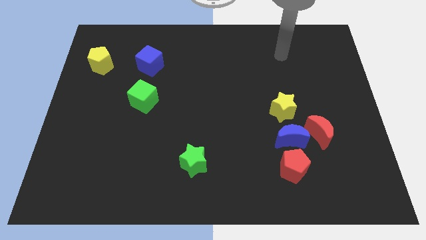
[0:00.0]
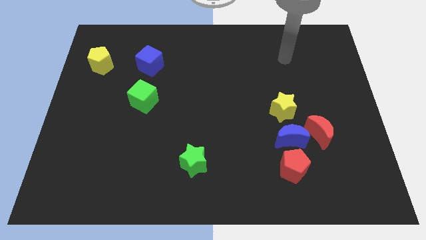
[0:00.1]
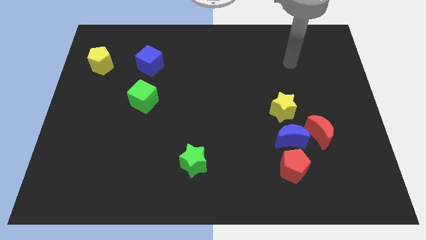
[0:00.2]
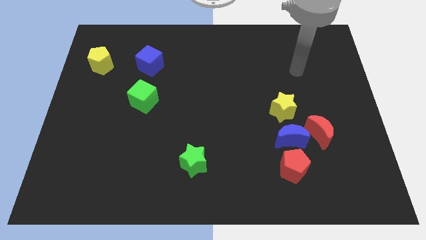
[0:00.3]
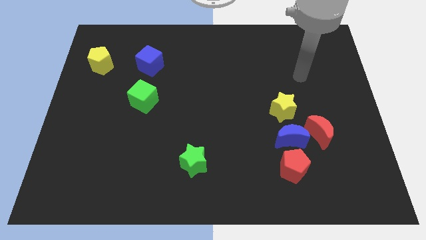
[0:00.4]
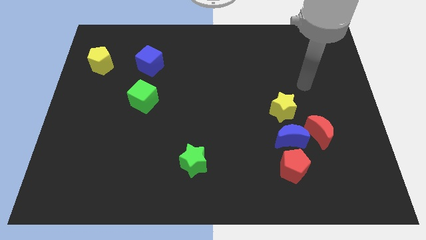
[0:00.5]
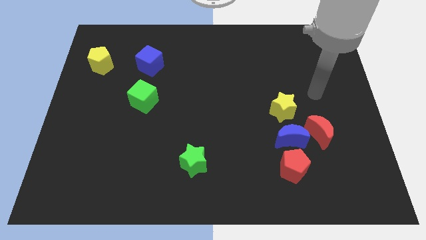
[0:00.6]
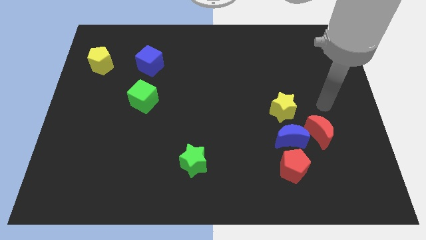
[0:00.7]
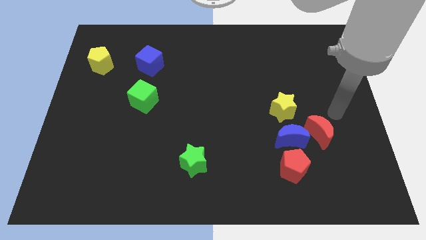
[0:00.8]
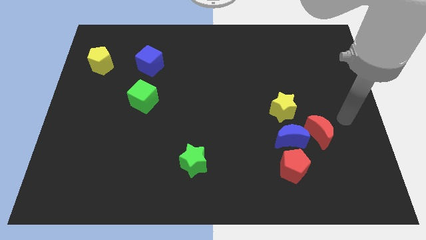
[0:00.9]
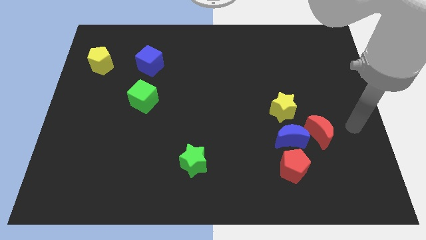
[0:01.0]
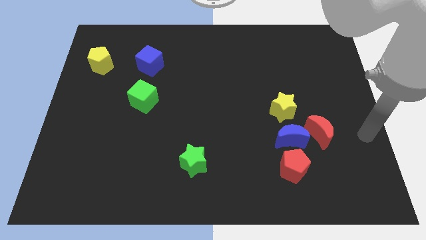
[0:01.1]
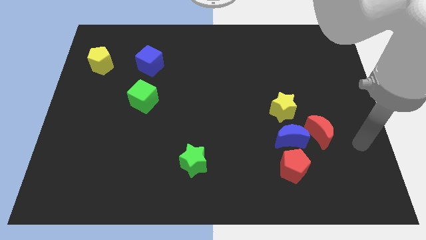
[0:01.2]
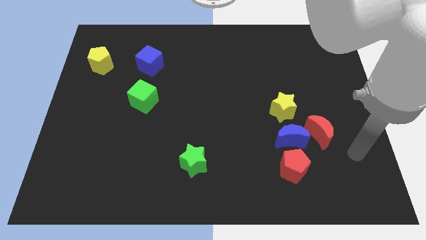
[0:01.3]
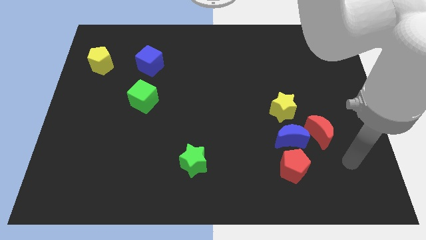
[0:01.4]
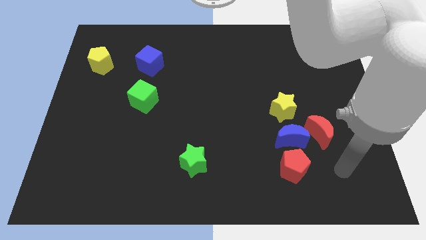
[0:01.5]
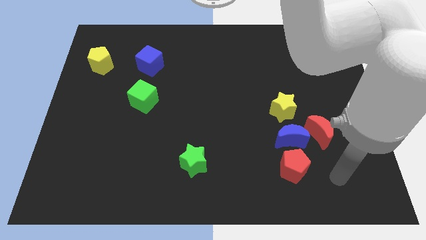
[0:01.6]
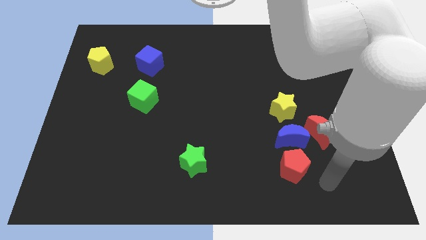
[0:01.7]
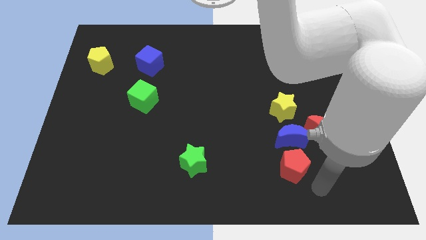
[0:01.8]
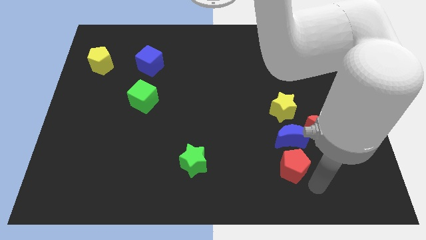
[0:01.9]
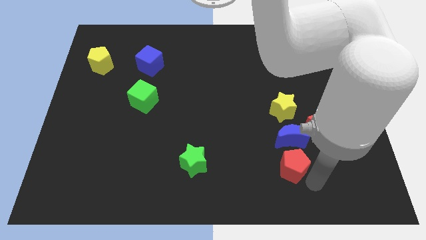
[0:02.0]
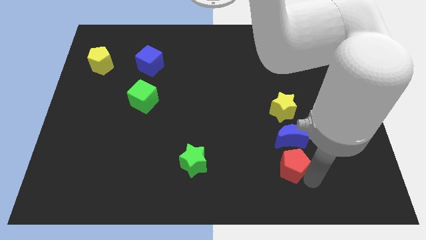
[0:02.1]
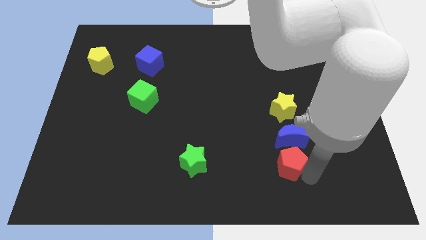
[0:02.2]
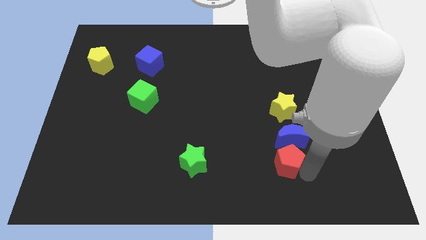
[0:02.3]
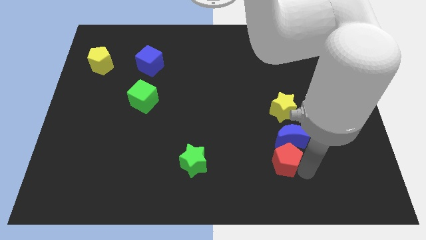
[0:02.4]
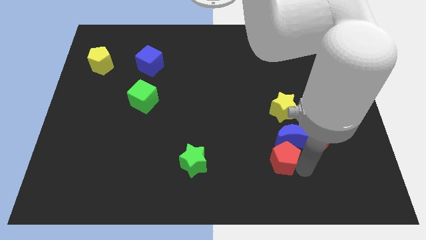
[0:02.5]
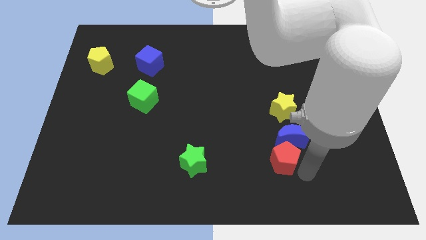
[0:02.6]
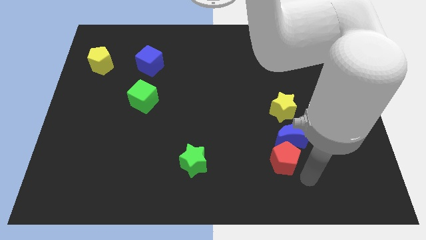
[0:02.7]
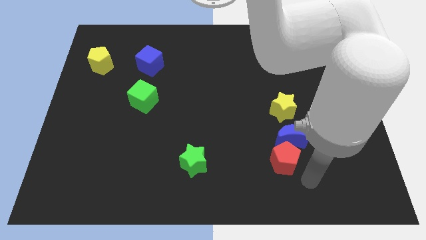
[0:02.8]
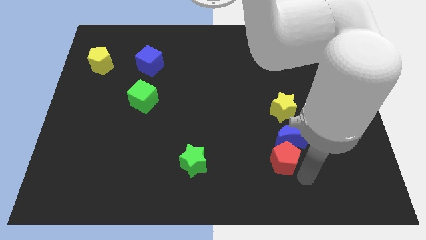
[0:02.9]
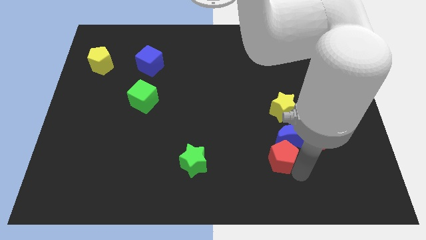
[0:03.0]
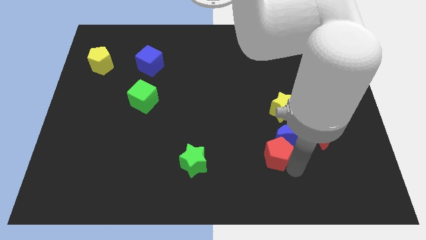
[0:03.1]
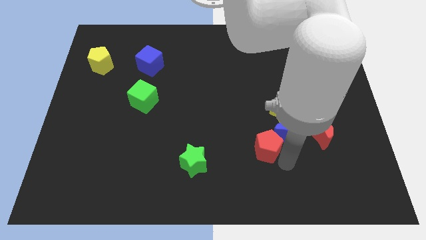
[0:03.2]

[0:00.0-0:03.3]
slightly slide the red pentagon upwards and left diagonally

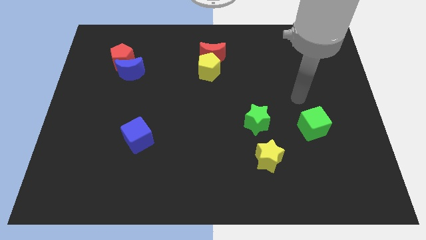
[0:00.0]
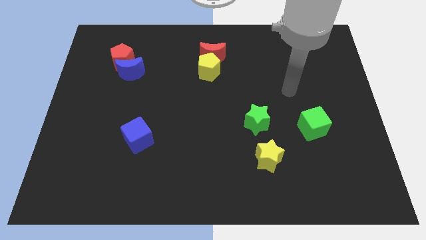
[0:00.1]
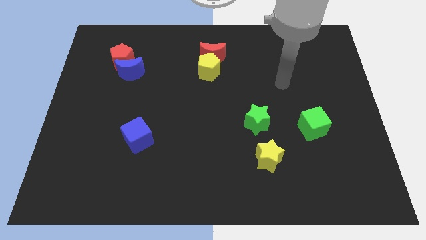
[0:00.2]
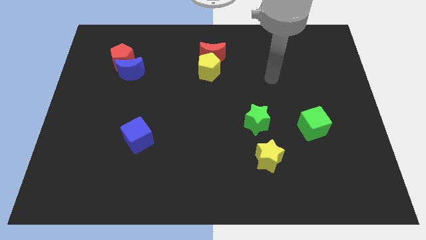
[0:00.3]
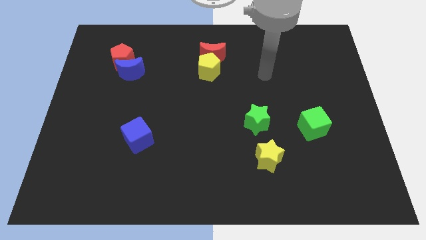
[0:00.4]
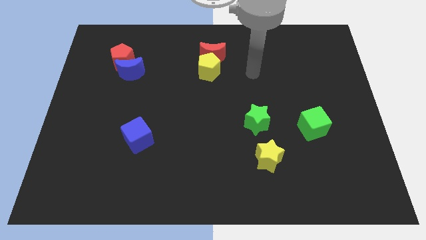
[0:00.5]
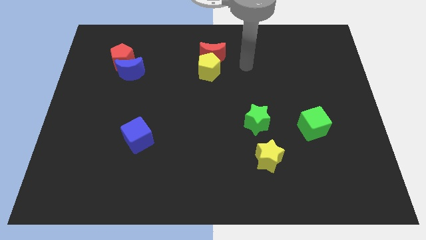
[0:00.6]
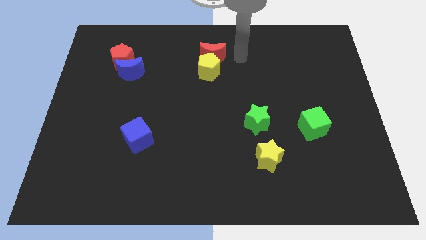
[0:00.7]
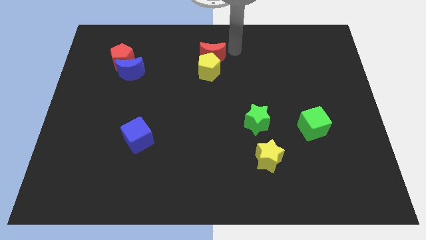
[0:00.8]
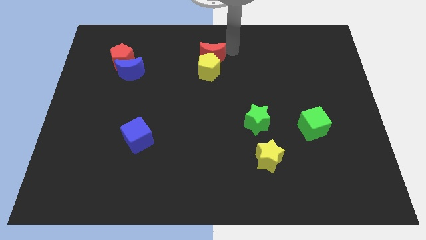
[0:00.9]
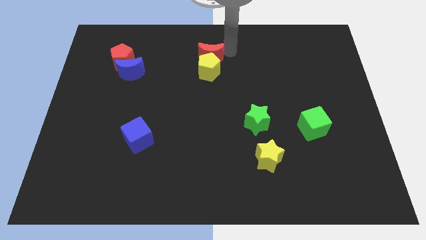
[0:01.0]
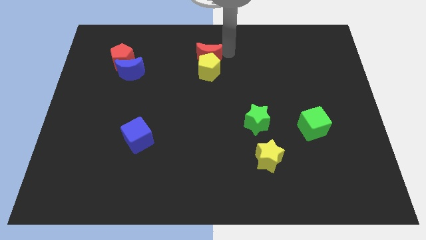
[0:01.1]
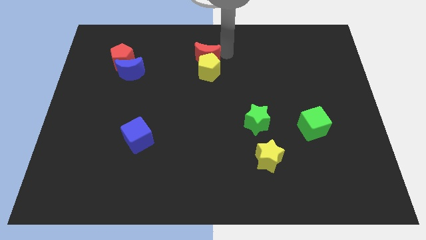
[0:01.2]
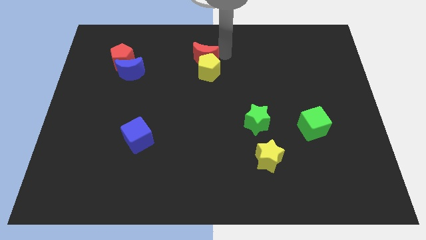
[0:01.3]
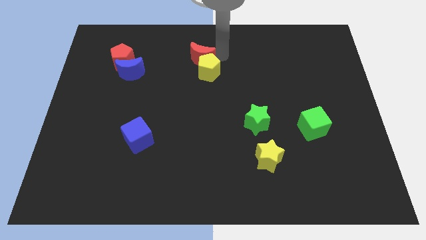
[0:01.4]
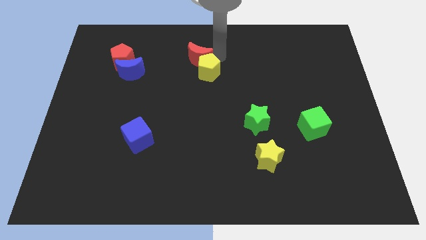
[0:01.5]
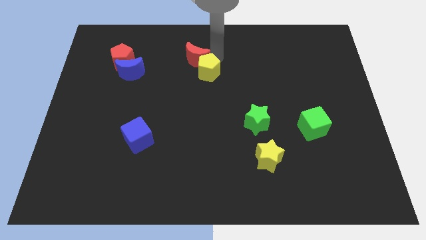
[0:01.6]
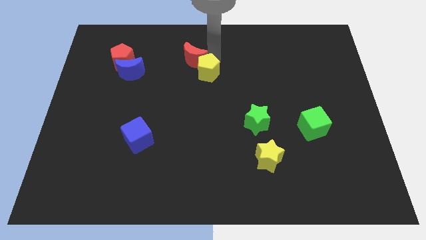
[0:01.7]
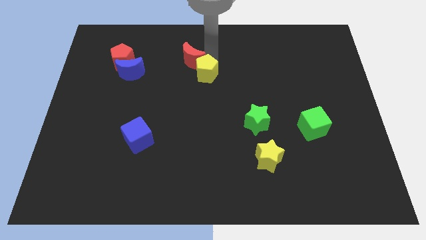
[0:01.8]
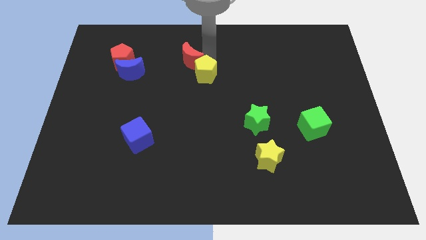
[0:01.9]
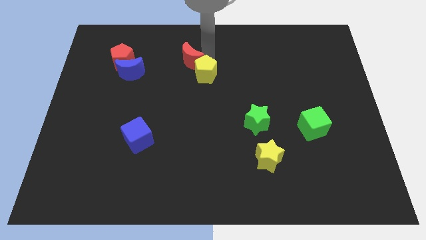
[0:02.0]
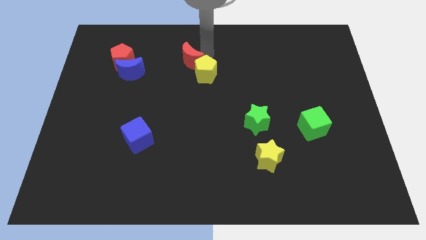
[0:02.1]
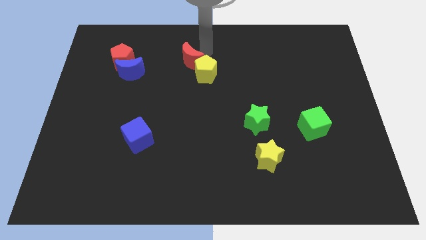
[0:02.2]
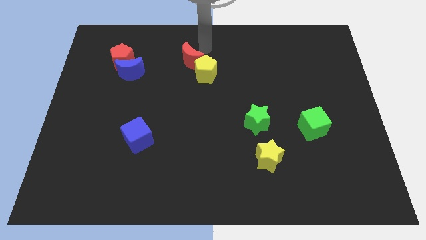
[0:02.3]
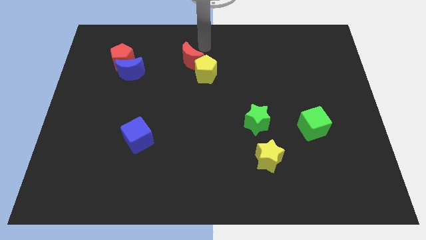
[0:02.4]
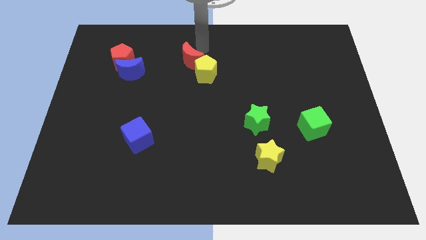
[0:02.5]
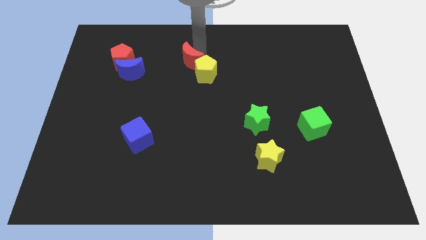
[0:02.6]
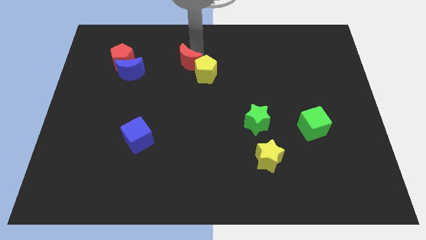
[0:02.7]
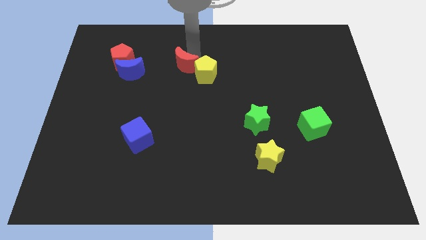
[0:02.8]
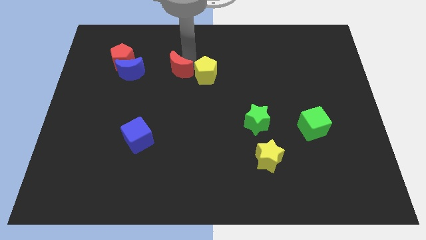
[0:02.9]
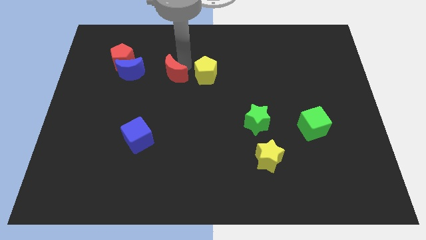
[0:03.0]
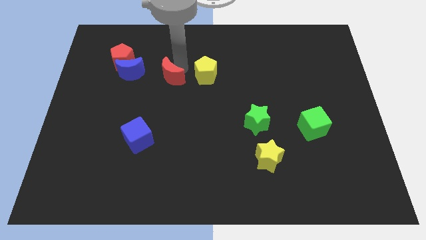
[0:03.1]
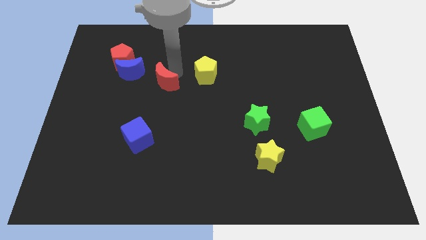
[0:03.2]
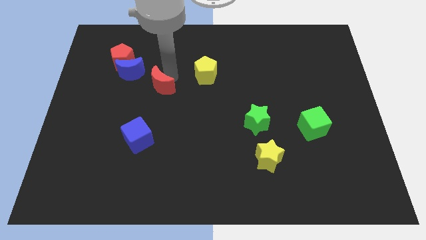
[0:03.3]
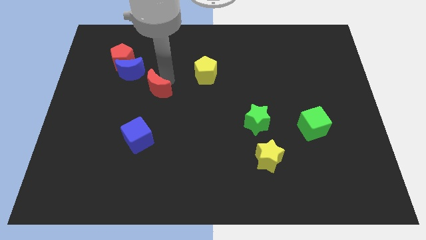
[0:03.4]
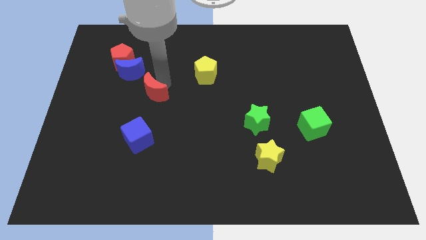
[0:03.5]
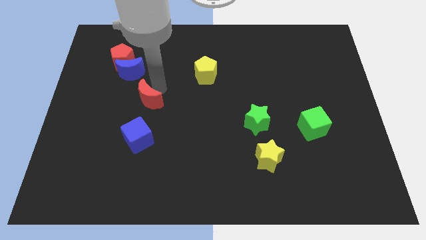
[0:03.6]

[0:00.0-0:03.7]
slide the red moon diagonally down and left

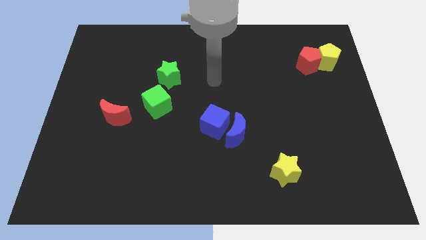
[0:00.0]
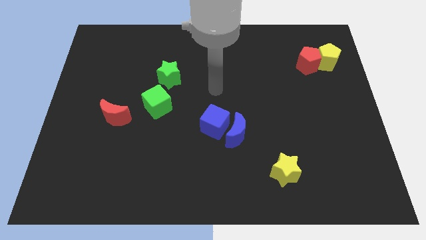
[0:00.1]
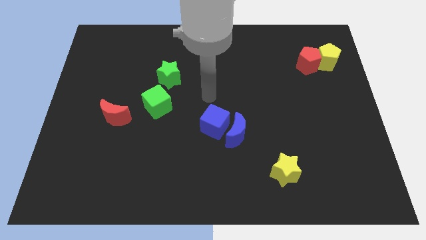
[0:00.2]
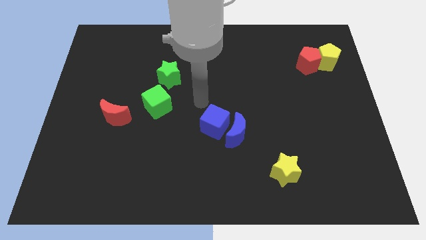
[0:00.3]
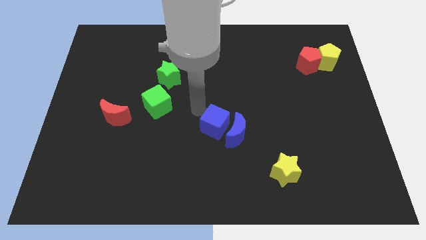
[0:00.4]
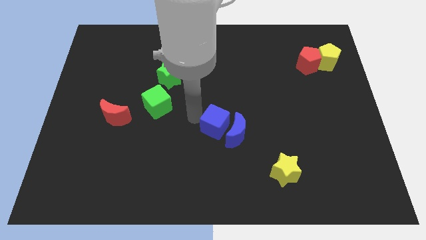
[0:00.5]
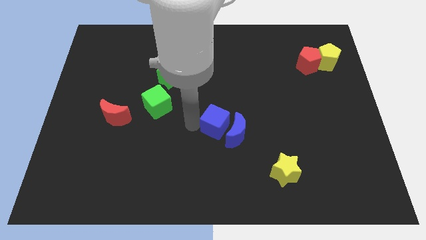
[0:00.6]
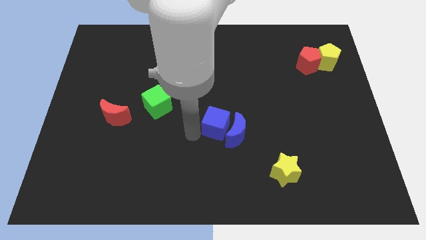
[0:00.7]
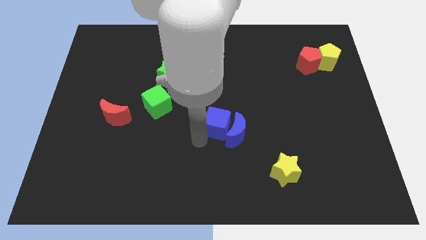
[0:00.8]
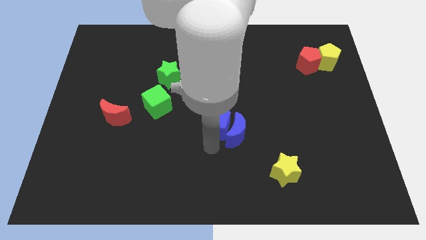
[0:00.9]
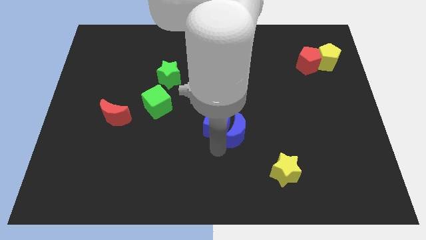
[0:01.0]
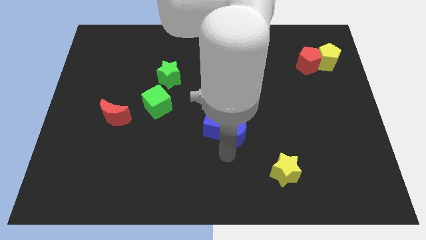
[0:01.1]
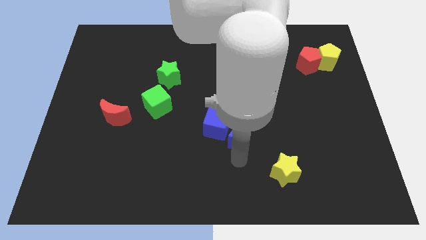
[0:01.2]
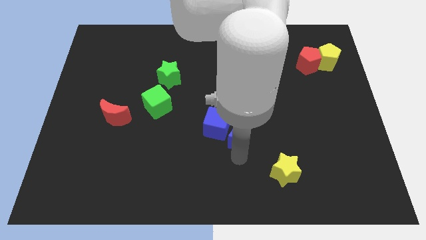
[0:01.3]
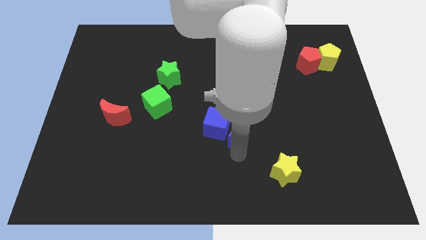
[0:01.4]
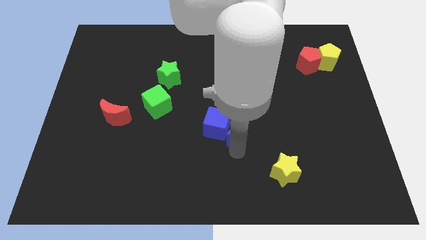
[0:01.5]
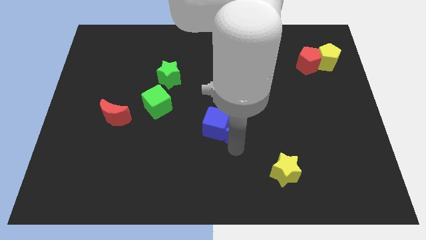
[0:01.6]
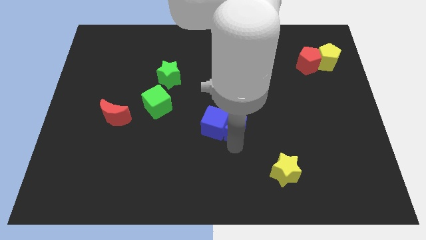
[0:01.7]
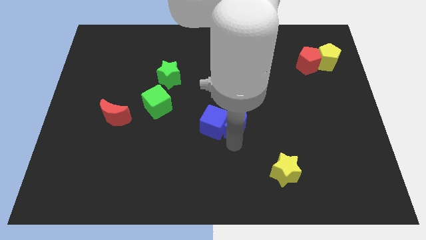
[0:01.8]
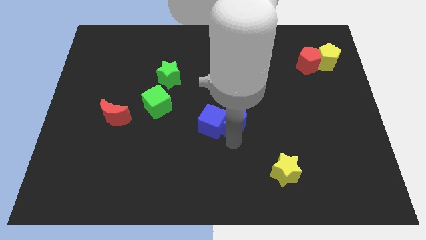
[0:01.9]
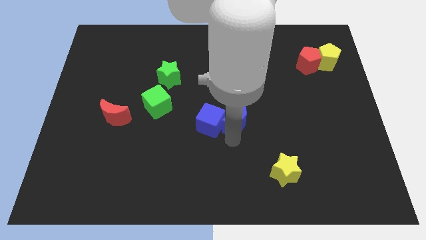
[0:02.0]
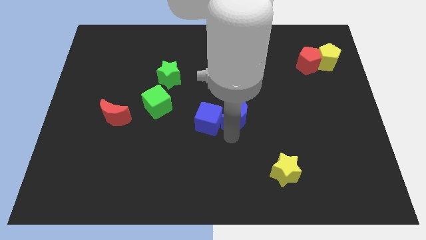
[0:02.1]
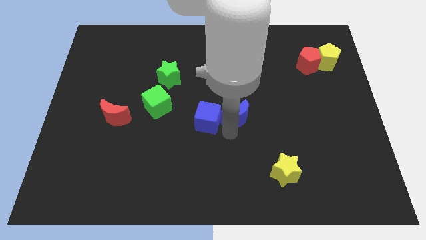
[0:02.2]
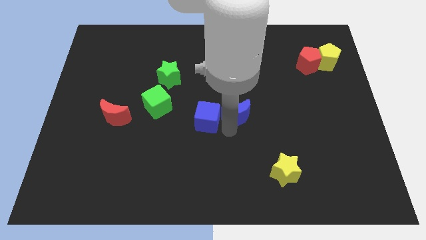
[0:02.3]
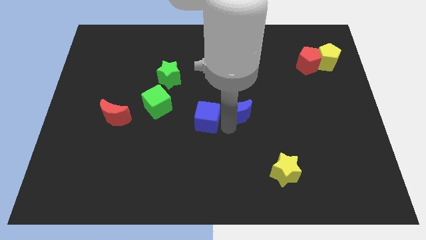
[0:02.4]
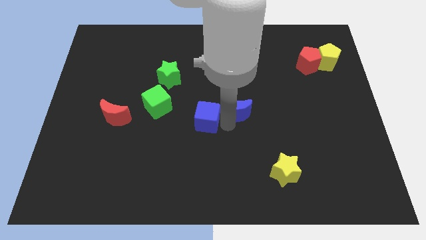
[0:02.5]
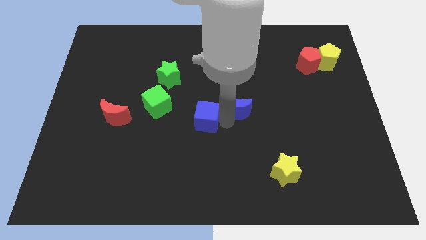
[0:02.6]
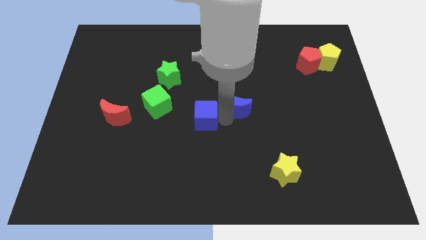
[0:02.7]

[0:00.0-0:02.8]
push the blue moon upwards a little
